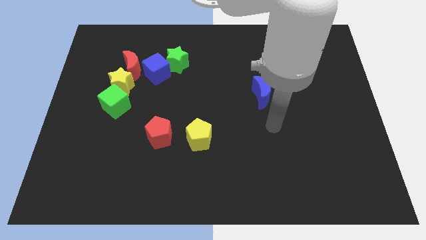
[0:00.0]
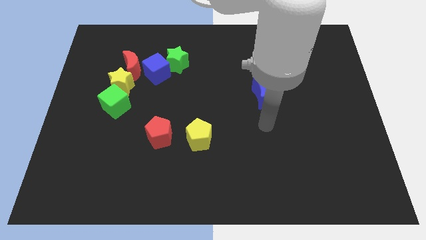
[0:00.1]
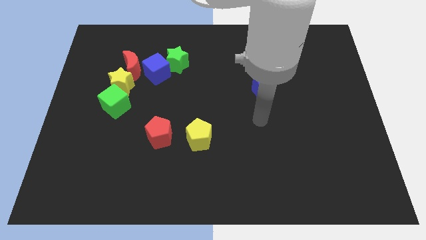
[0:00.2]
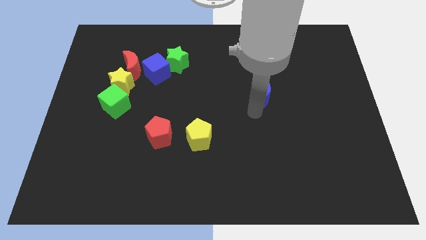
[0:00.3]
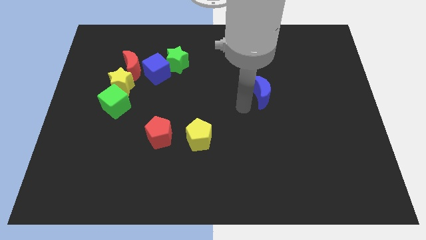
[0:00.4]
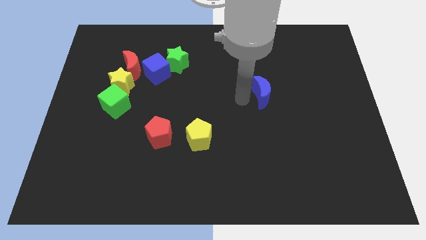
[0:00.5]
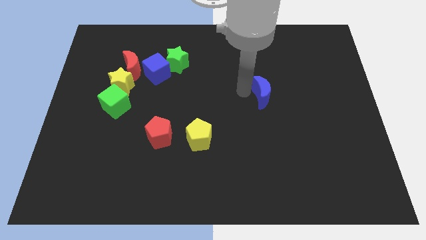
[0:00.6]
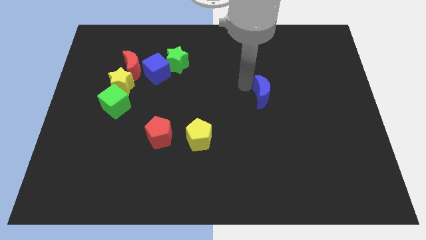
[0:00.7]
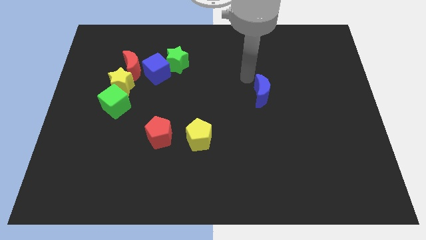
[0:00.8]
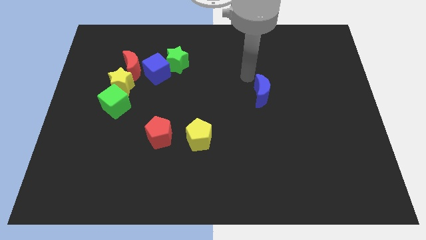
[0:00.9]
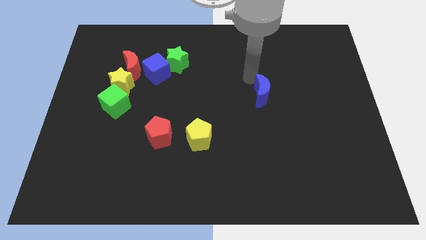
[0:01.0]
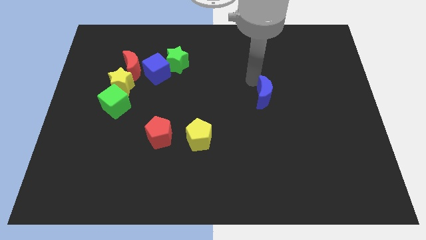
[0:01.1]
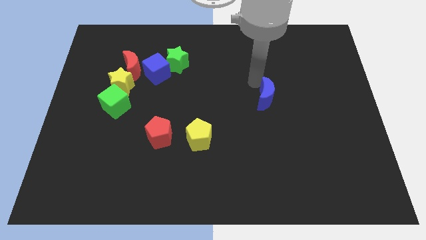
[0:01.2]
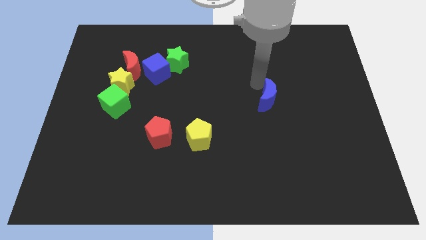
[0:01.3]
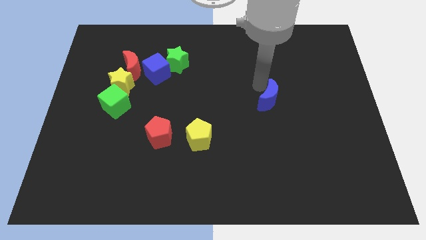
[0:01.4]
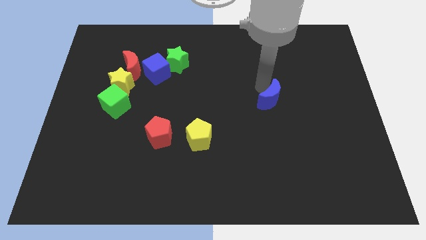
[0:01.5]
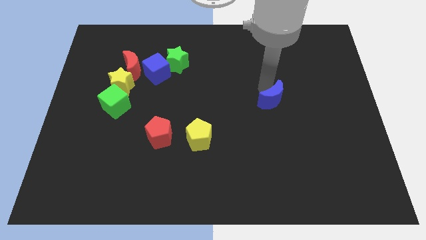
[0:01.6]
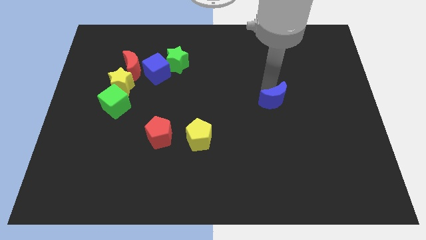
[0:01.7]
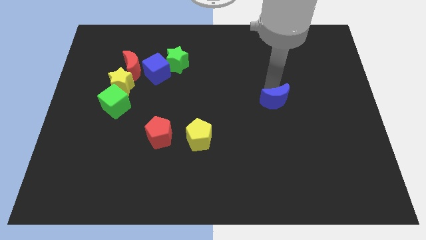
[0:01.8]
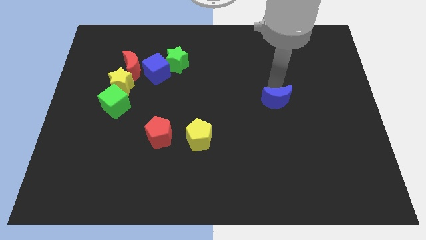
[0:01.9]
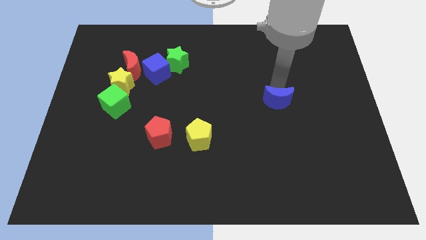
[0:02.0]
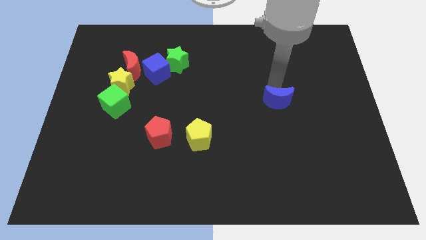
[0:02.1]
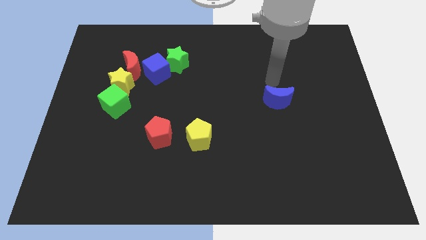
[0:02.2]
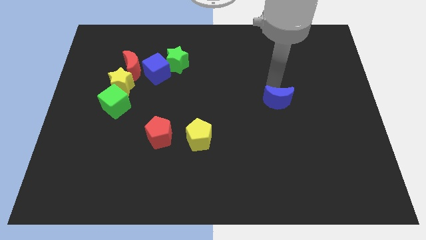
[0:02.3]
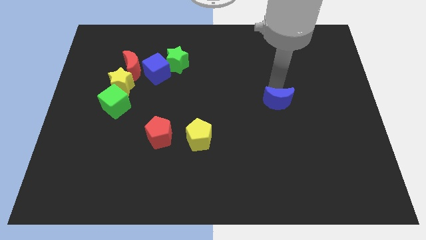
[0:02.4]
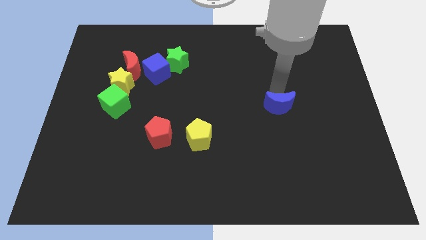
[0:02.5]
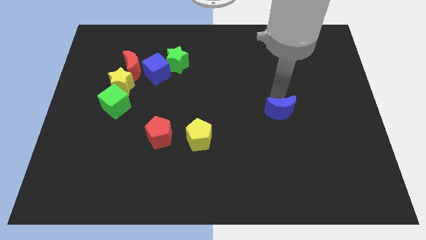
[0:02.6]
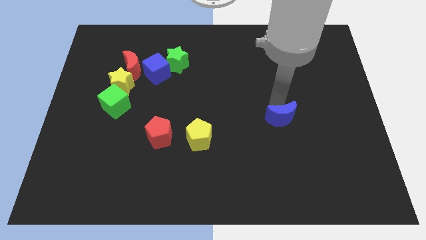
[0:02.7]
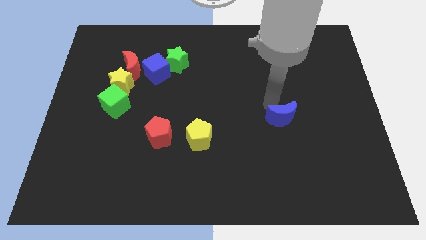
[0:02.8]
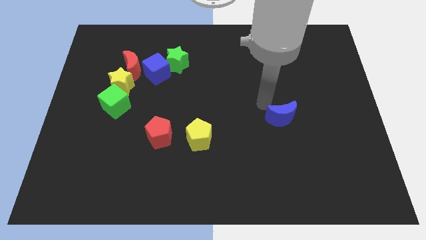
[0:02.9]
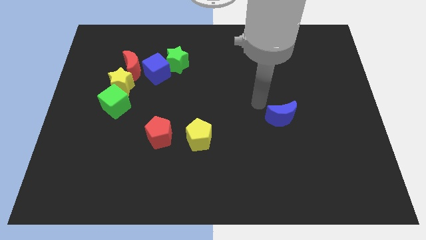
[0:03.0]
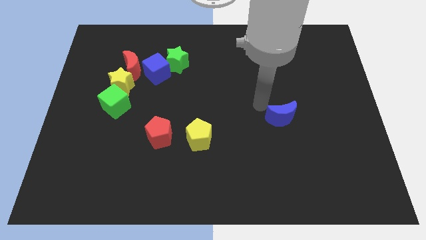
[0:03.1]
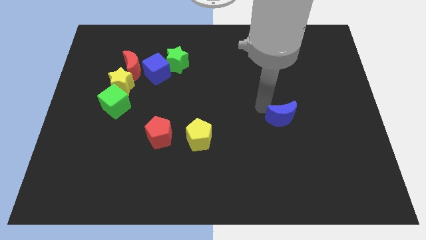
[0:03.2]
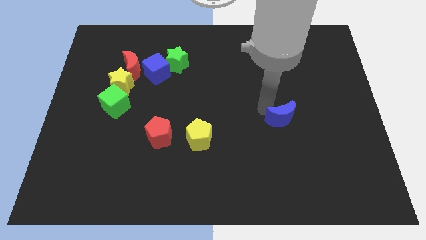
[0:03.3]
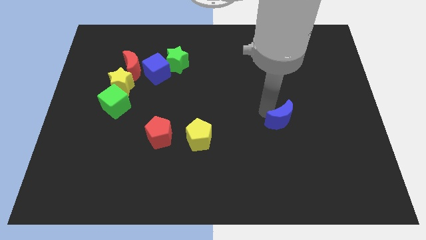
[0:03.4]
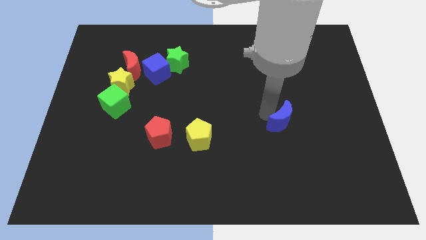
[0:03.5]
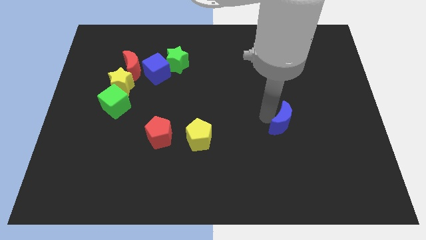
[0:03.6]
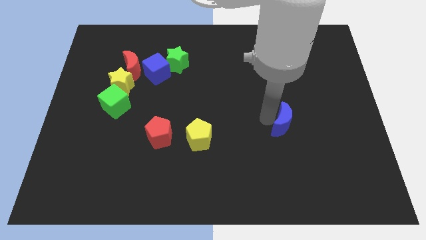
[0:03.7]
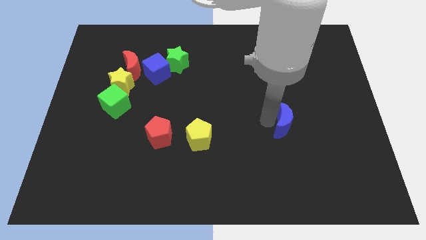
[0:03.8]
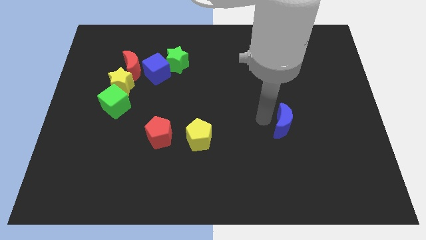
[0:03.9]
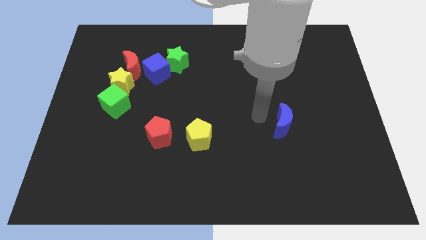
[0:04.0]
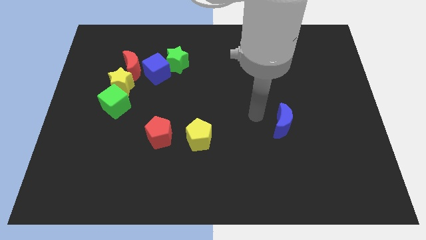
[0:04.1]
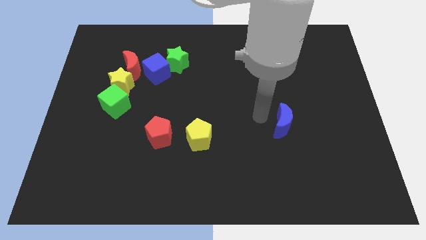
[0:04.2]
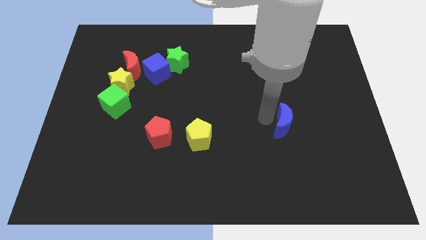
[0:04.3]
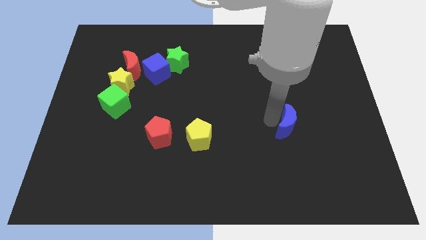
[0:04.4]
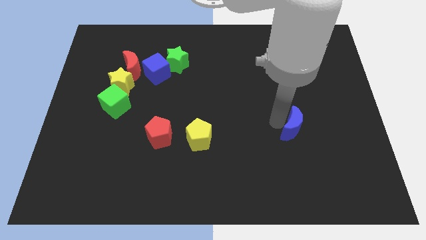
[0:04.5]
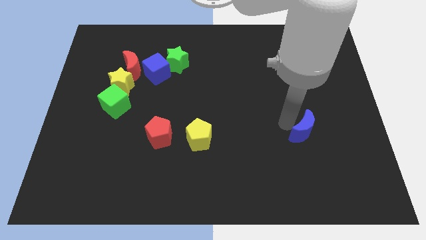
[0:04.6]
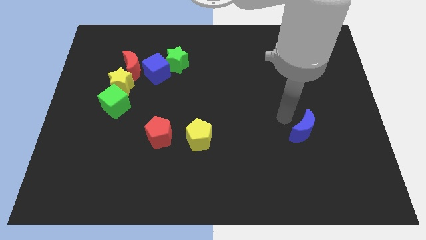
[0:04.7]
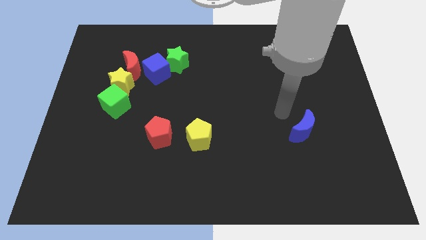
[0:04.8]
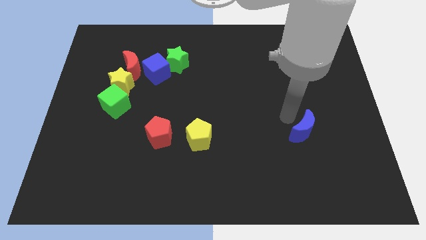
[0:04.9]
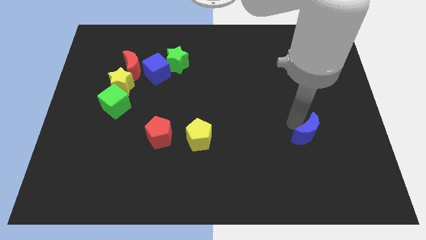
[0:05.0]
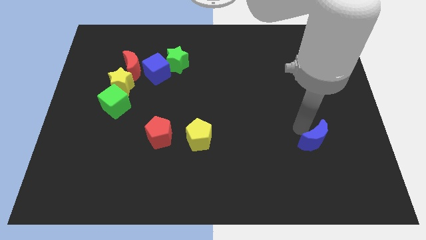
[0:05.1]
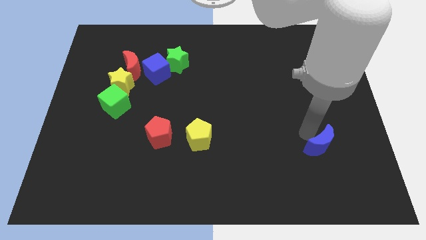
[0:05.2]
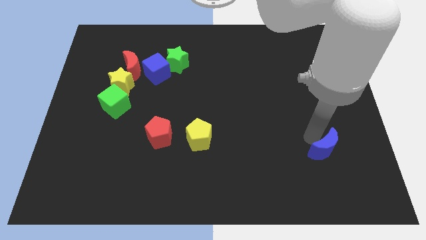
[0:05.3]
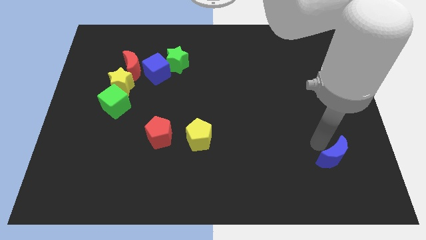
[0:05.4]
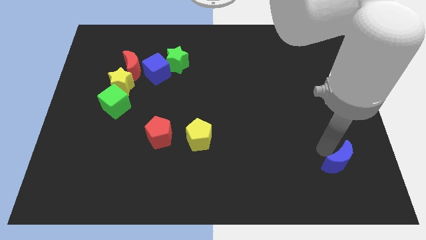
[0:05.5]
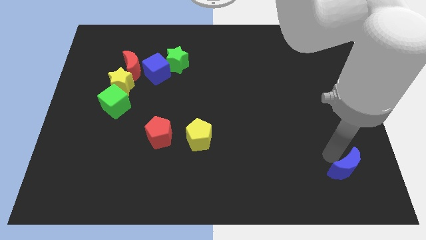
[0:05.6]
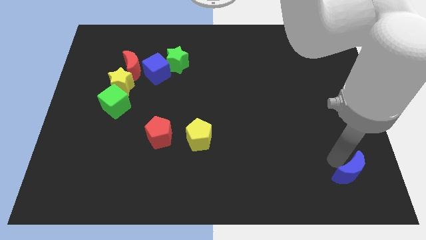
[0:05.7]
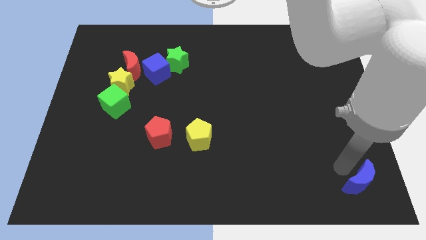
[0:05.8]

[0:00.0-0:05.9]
put the blue moon to the bottom right

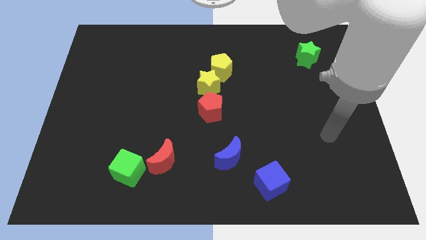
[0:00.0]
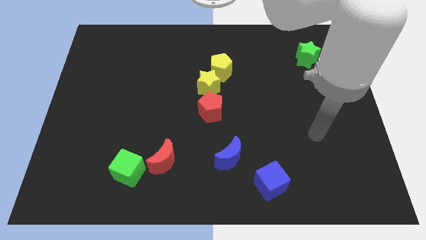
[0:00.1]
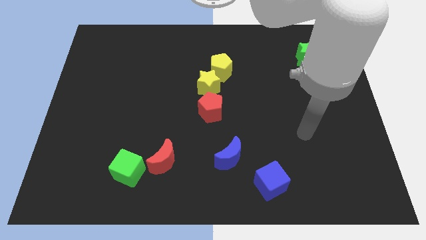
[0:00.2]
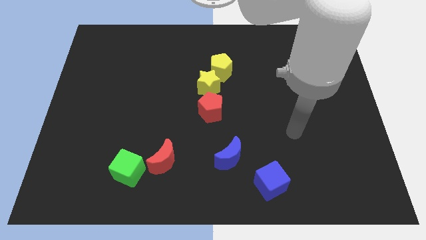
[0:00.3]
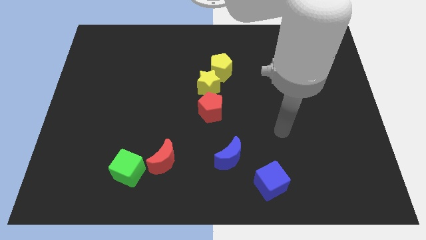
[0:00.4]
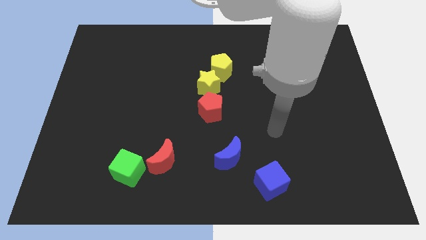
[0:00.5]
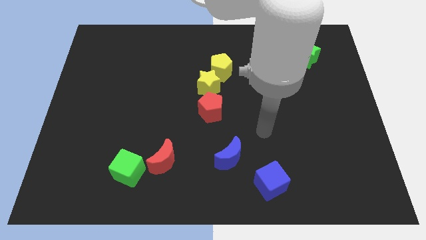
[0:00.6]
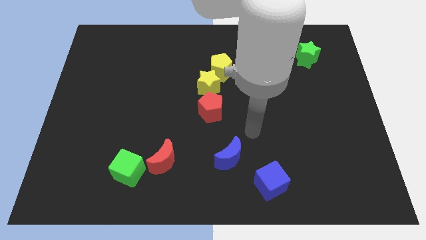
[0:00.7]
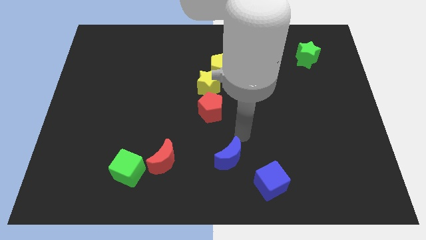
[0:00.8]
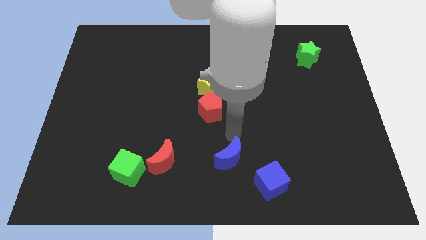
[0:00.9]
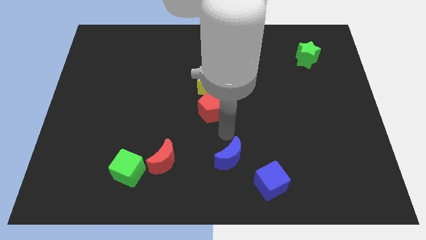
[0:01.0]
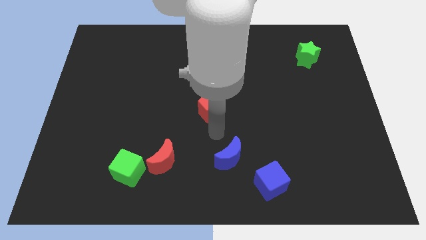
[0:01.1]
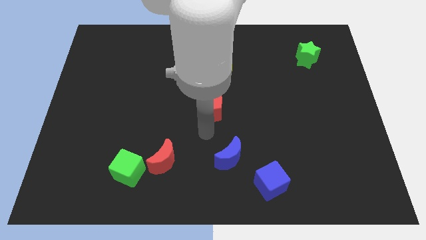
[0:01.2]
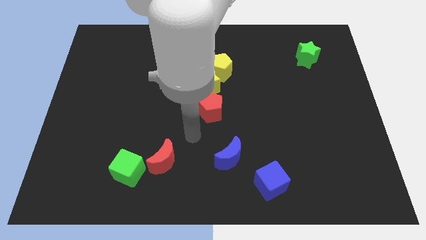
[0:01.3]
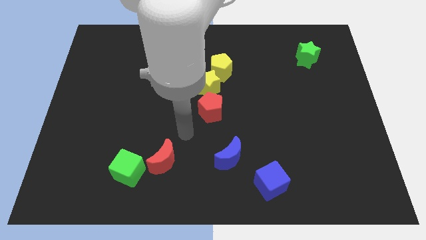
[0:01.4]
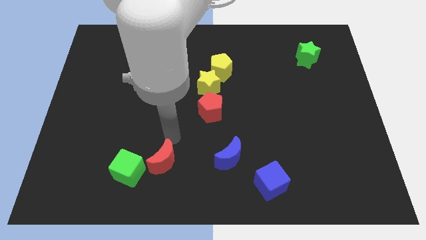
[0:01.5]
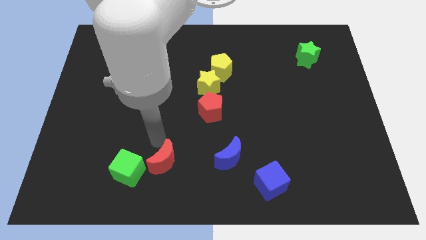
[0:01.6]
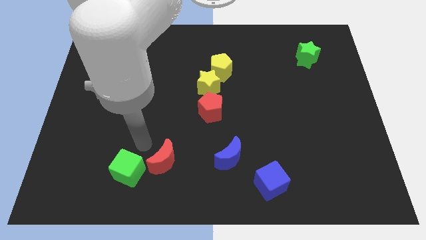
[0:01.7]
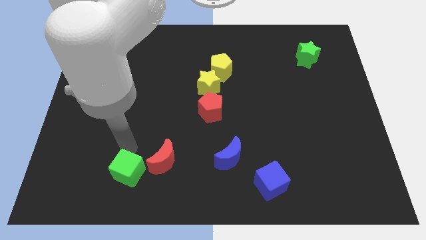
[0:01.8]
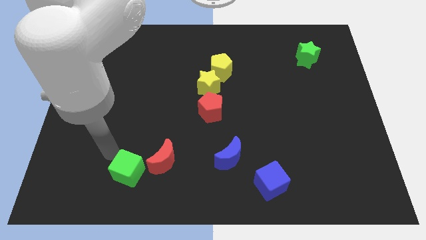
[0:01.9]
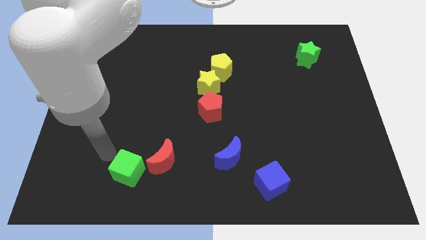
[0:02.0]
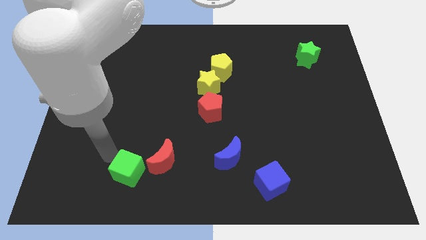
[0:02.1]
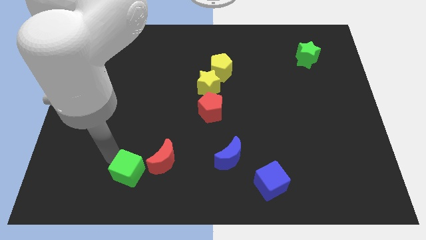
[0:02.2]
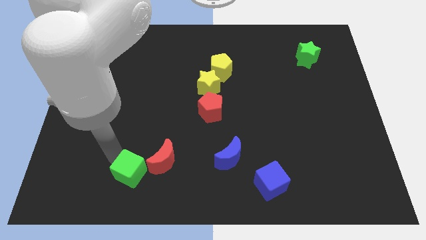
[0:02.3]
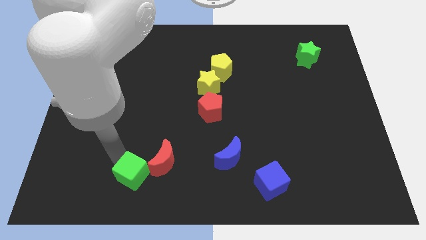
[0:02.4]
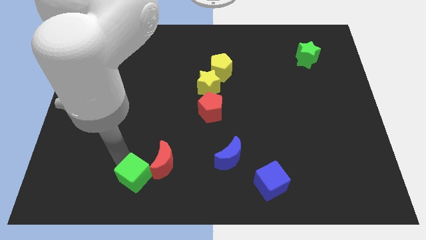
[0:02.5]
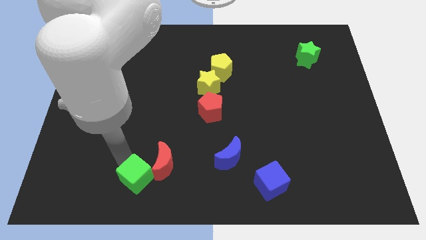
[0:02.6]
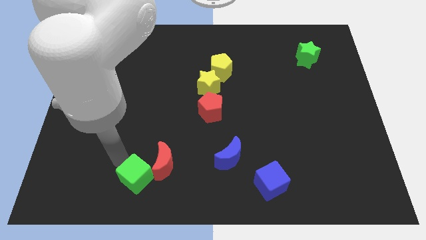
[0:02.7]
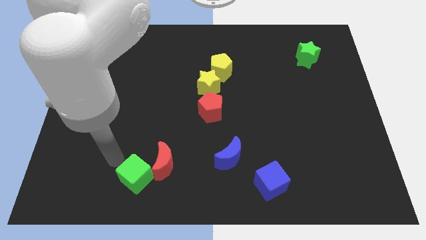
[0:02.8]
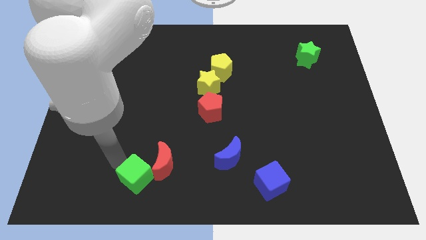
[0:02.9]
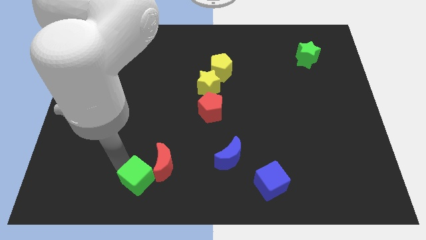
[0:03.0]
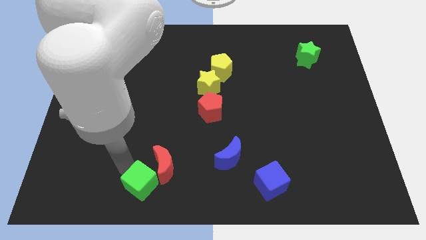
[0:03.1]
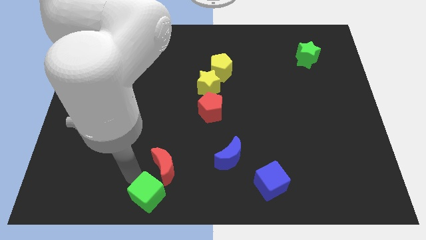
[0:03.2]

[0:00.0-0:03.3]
push the green cube to the bottom
